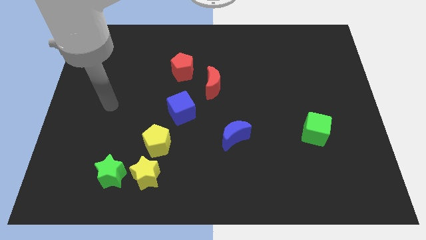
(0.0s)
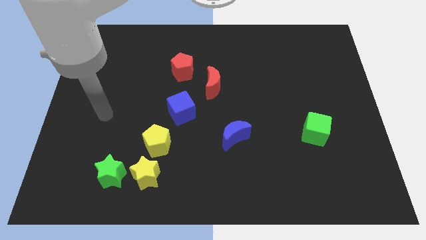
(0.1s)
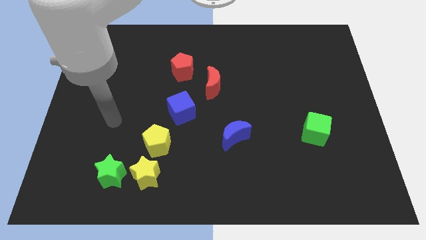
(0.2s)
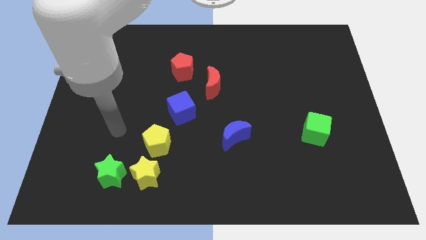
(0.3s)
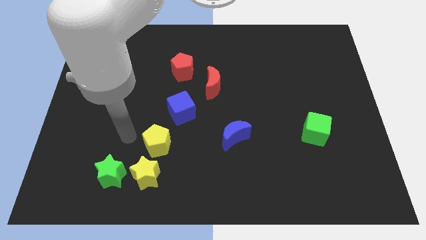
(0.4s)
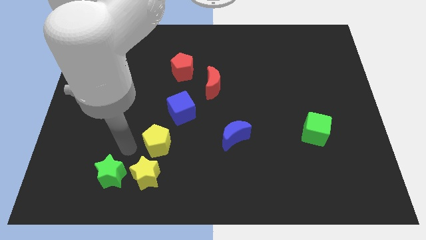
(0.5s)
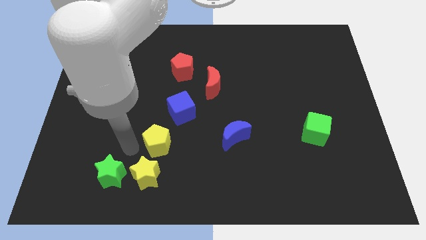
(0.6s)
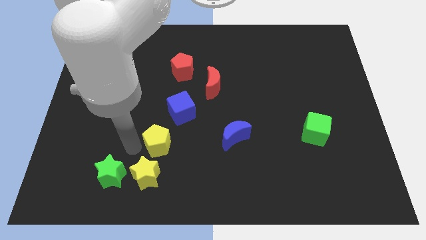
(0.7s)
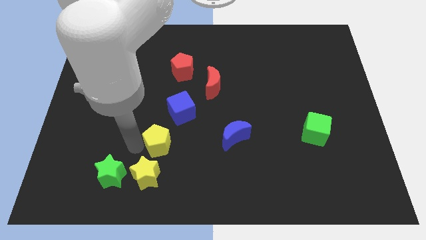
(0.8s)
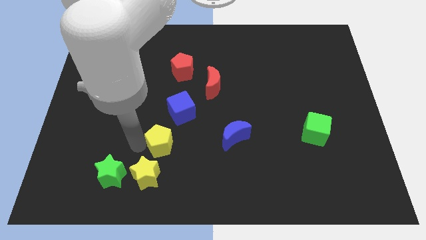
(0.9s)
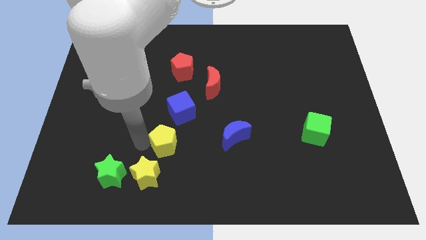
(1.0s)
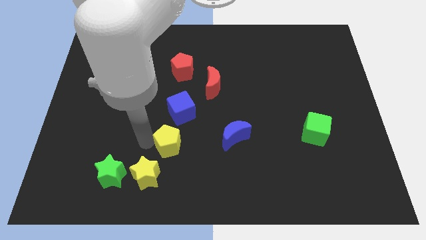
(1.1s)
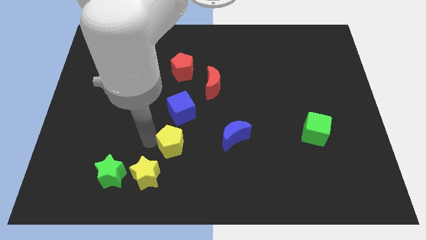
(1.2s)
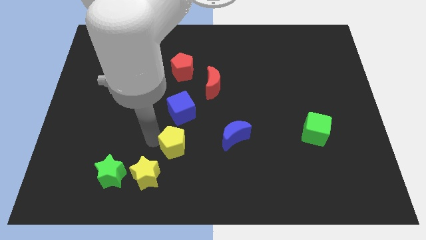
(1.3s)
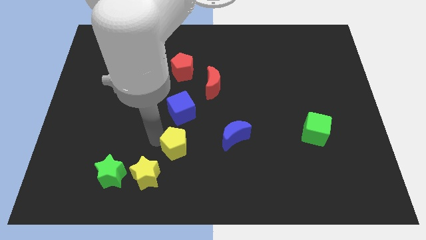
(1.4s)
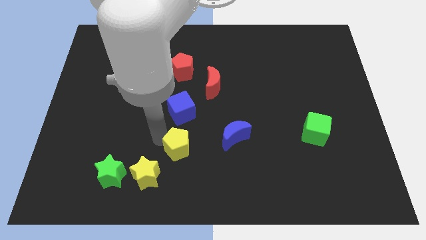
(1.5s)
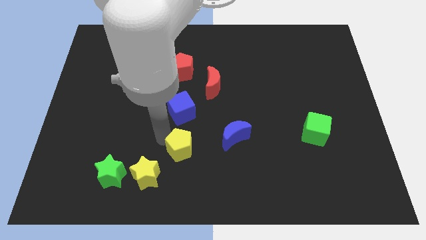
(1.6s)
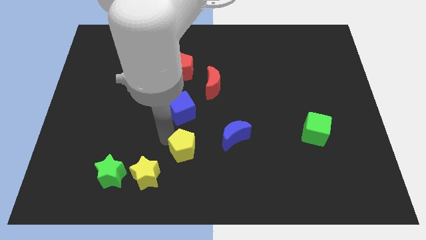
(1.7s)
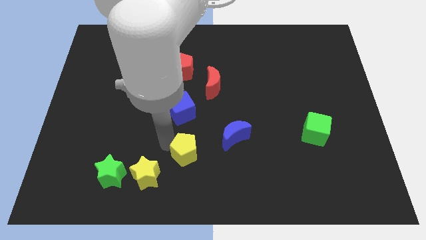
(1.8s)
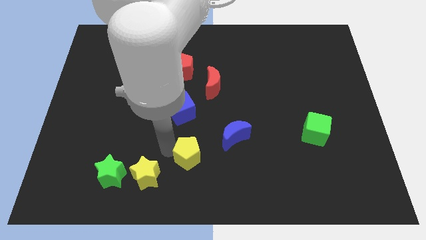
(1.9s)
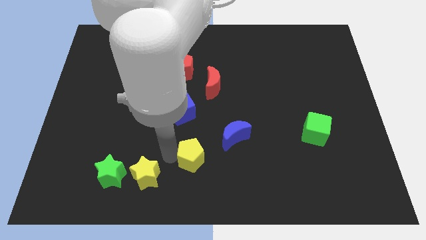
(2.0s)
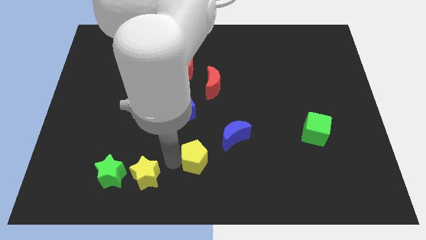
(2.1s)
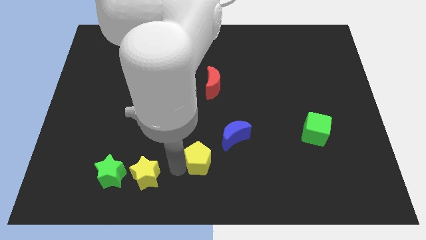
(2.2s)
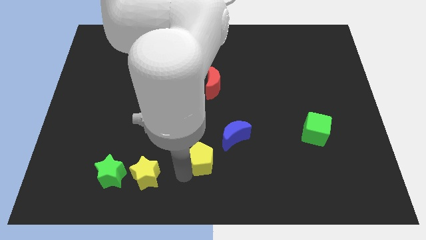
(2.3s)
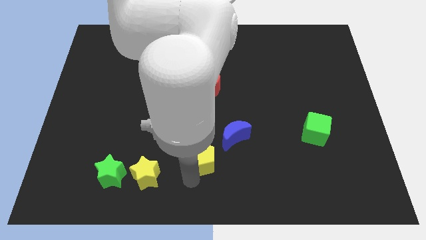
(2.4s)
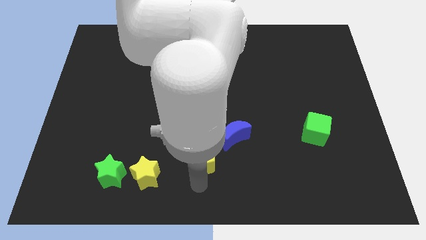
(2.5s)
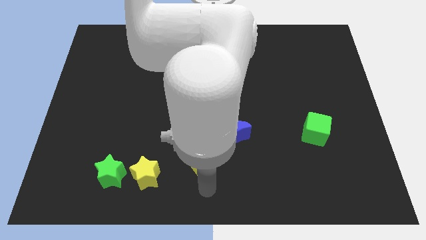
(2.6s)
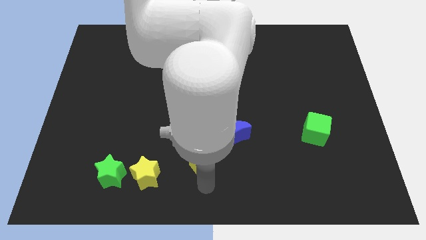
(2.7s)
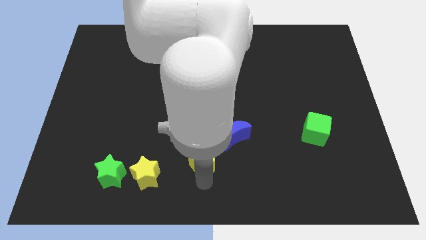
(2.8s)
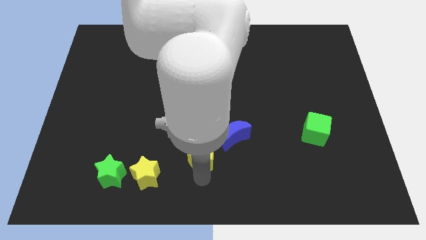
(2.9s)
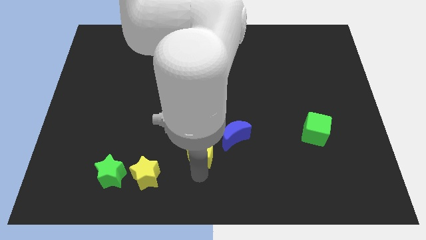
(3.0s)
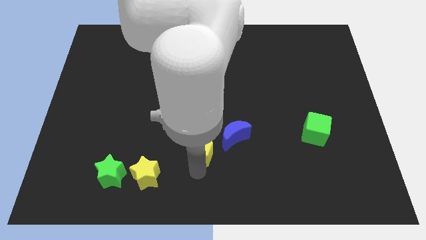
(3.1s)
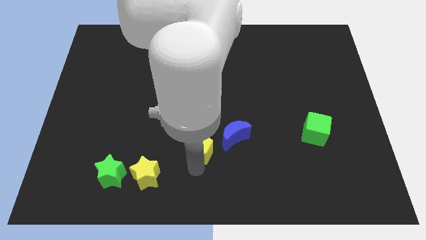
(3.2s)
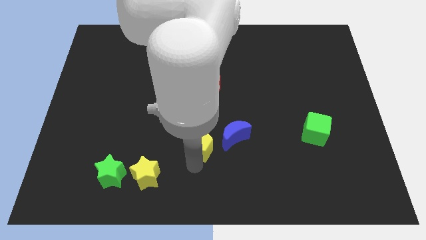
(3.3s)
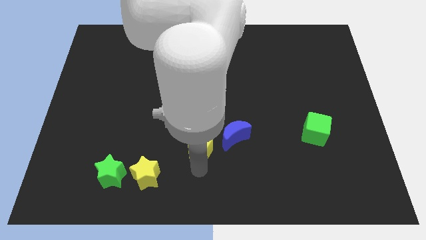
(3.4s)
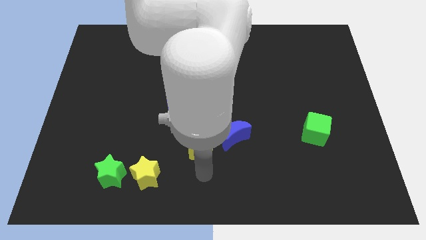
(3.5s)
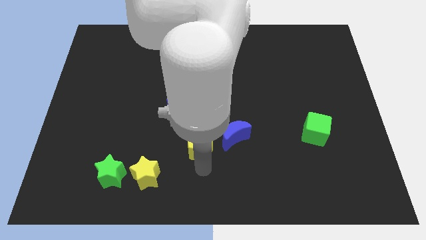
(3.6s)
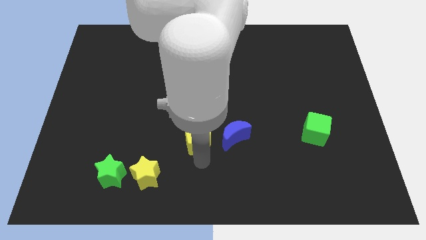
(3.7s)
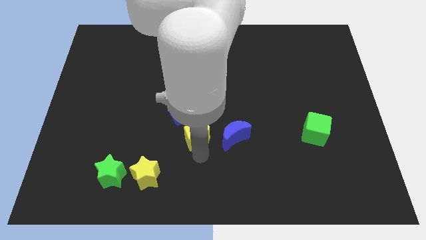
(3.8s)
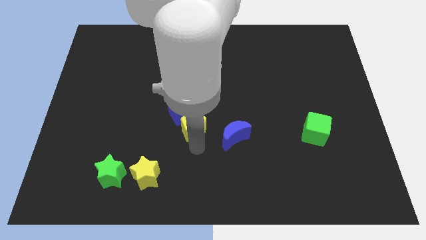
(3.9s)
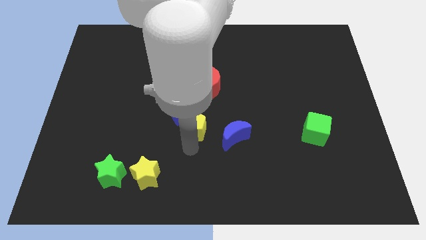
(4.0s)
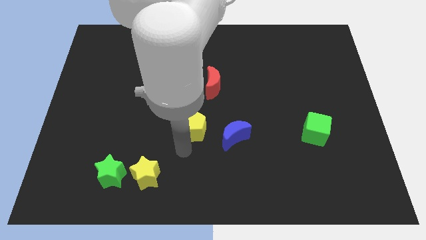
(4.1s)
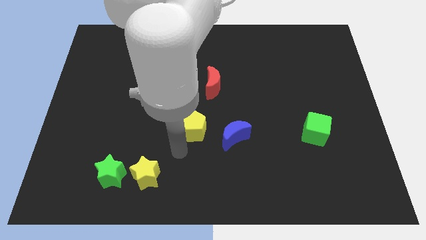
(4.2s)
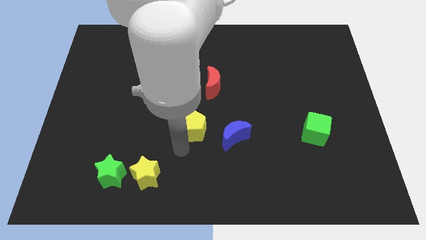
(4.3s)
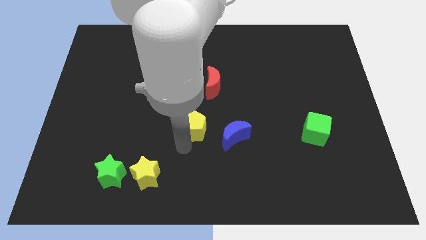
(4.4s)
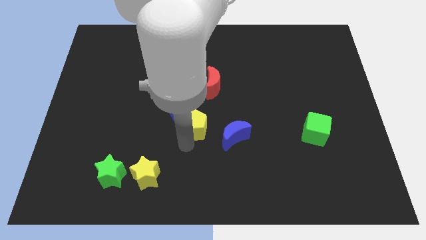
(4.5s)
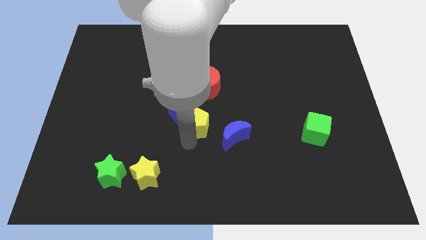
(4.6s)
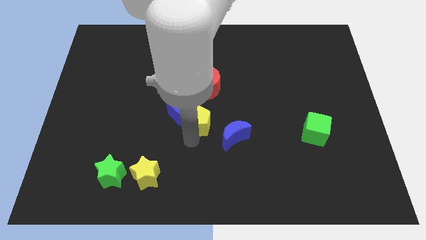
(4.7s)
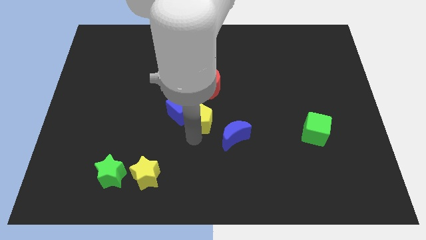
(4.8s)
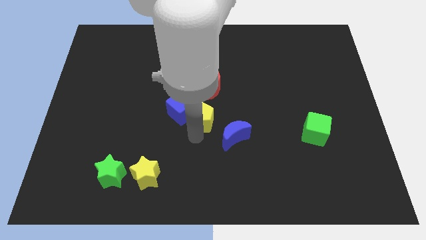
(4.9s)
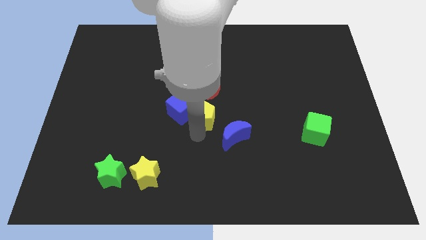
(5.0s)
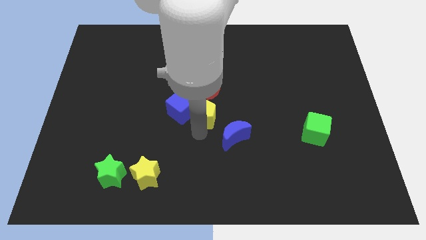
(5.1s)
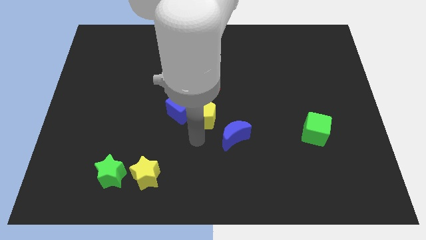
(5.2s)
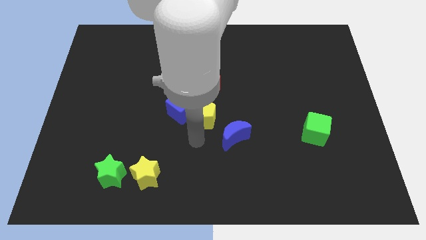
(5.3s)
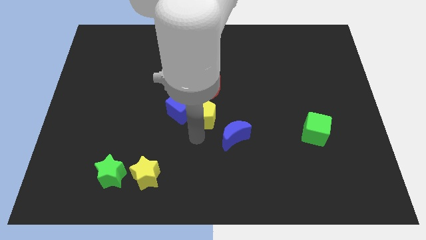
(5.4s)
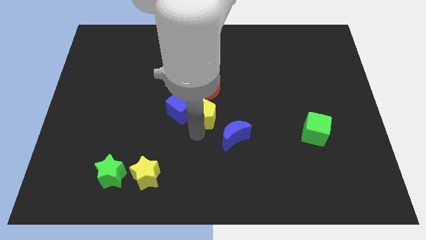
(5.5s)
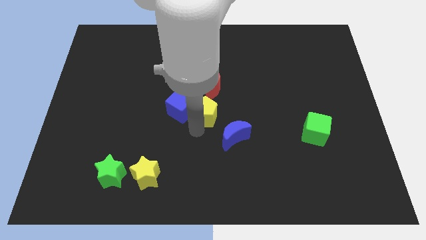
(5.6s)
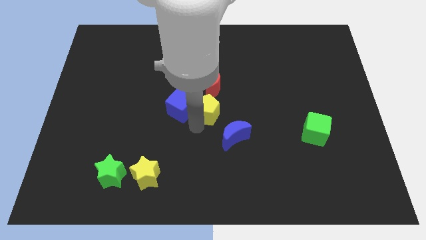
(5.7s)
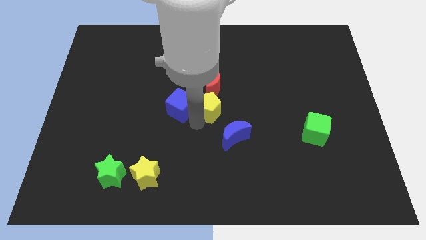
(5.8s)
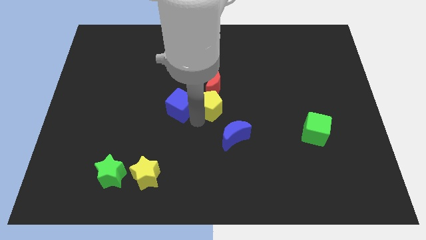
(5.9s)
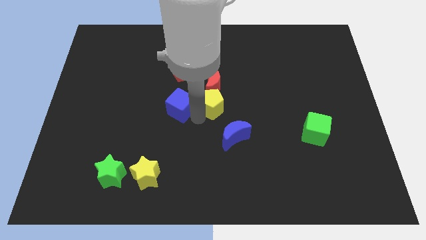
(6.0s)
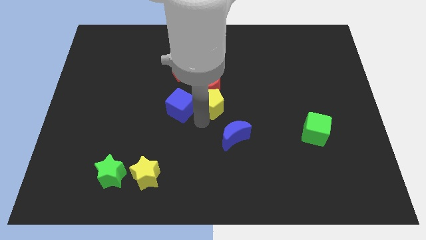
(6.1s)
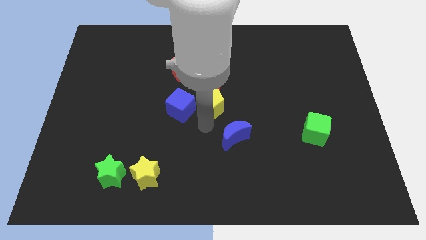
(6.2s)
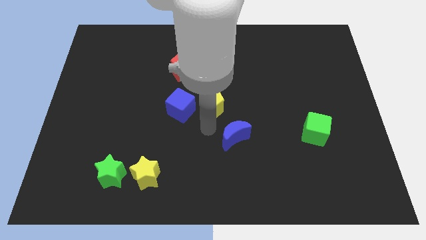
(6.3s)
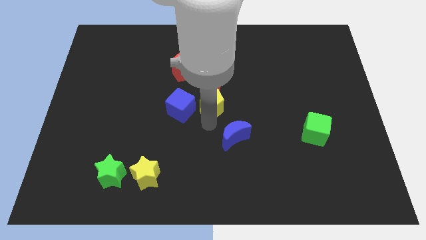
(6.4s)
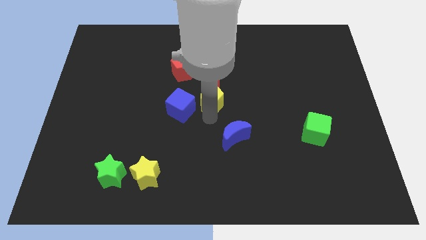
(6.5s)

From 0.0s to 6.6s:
slide the yellow pentagon to the red moon

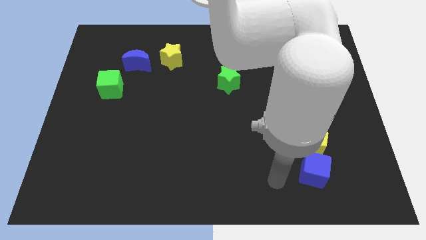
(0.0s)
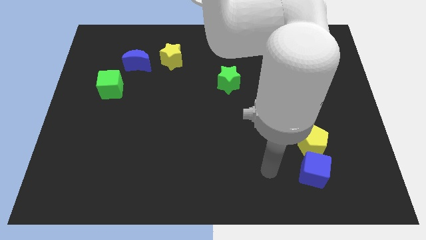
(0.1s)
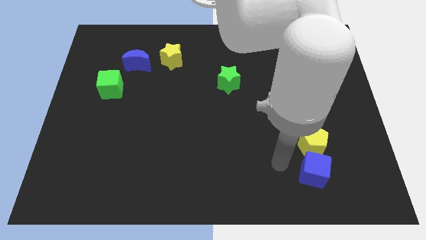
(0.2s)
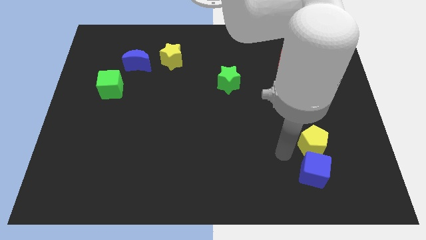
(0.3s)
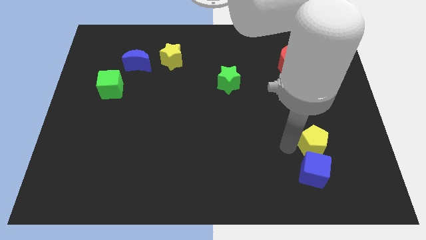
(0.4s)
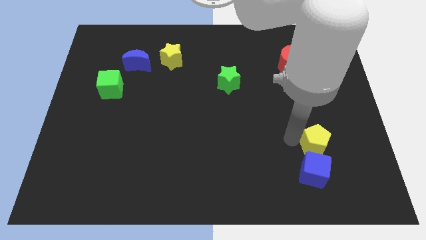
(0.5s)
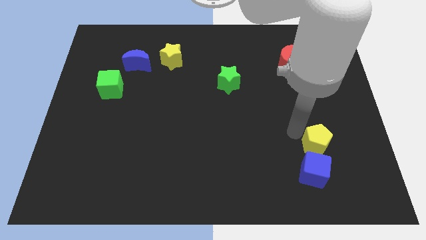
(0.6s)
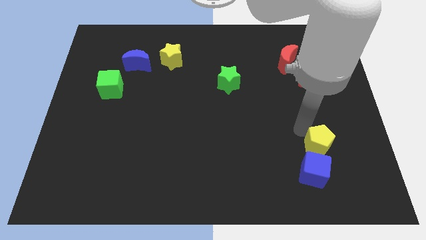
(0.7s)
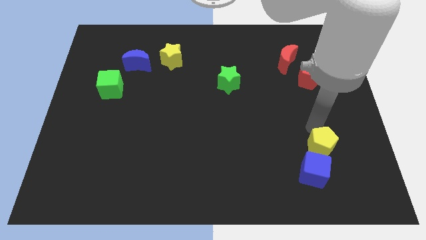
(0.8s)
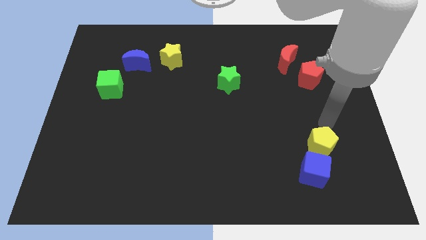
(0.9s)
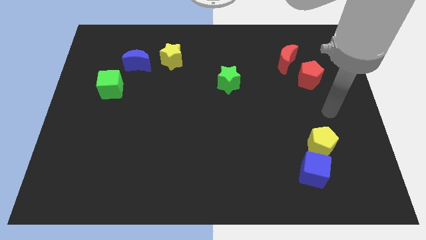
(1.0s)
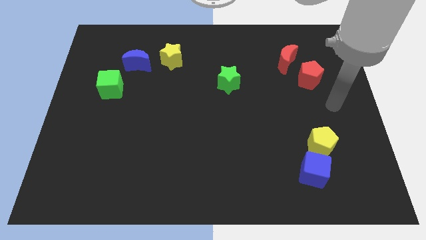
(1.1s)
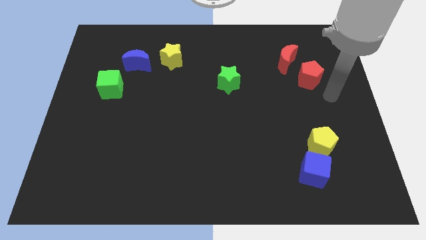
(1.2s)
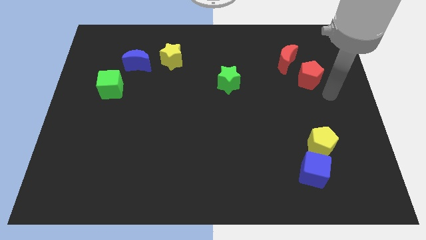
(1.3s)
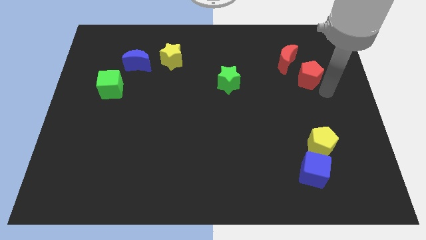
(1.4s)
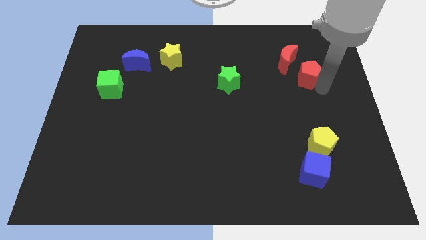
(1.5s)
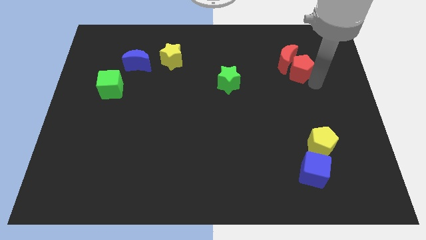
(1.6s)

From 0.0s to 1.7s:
push the red pentagon close to the red moon
